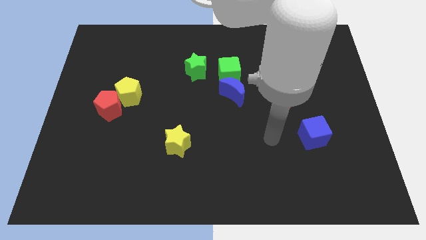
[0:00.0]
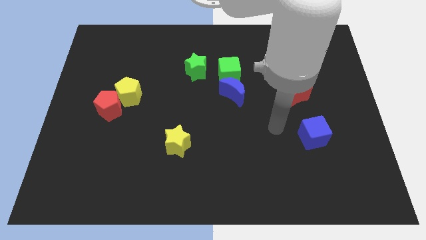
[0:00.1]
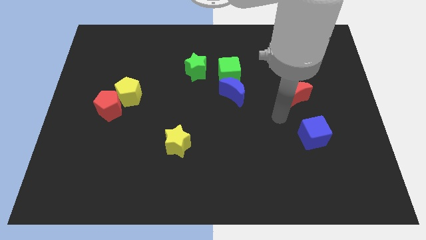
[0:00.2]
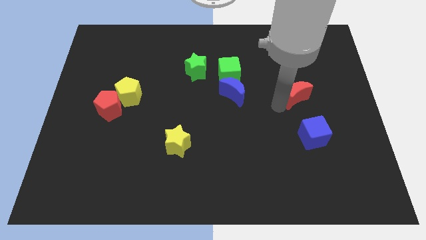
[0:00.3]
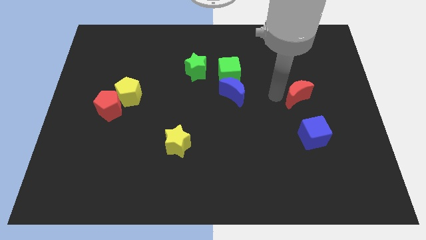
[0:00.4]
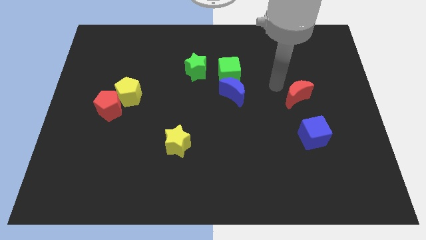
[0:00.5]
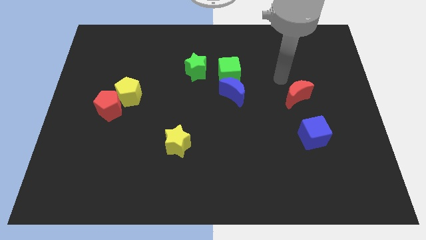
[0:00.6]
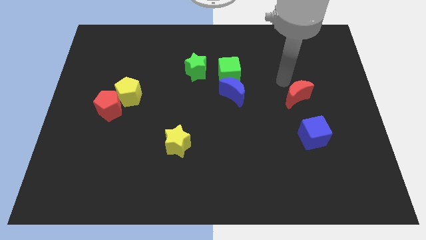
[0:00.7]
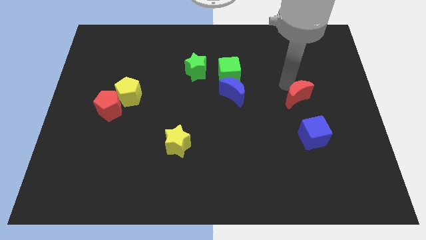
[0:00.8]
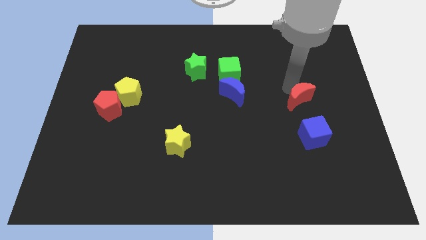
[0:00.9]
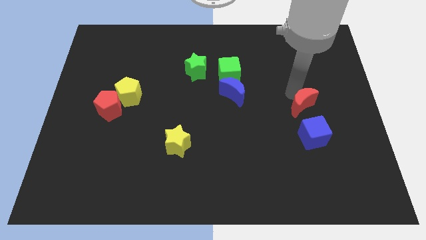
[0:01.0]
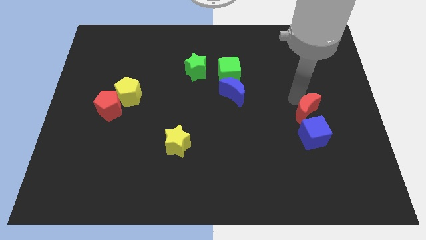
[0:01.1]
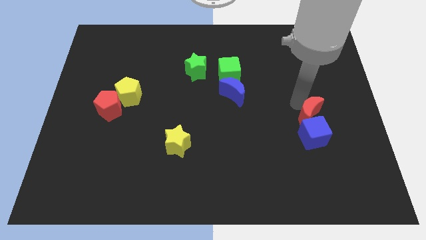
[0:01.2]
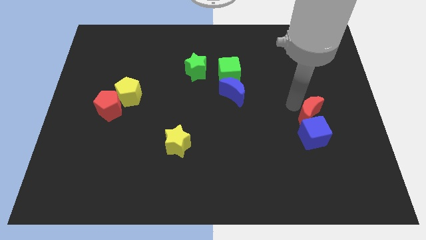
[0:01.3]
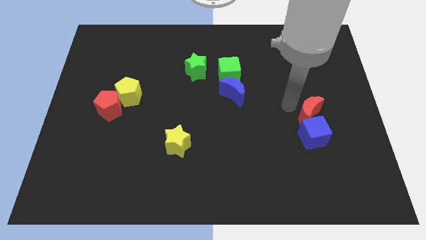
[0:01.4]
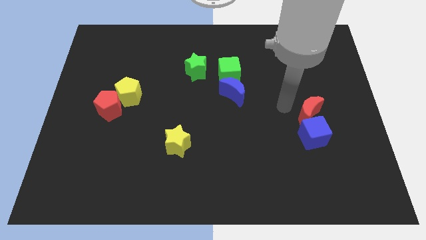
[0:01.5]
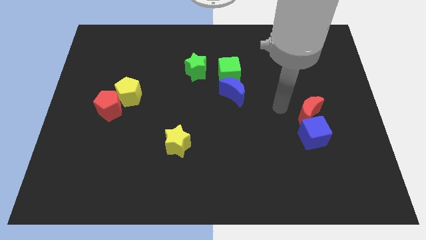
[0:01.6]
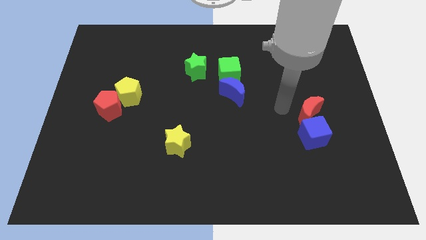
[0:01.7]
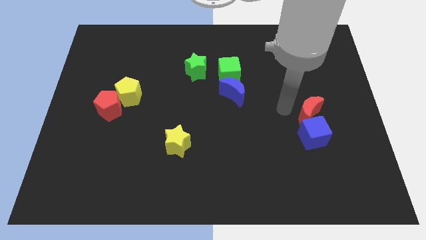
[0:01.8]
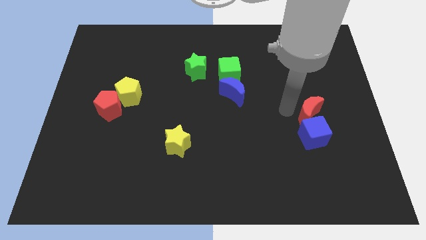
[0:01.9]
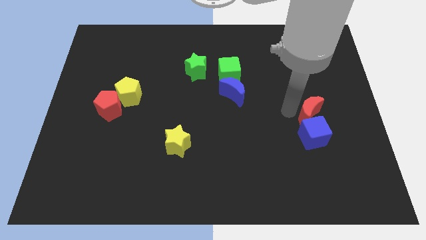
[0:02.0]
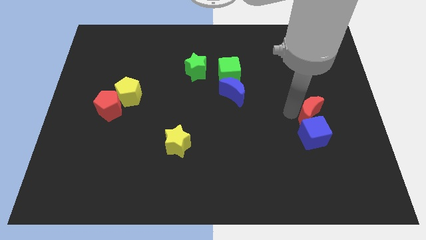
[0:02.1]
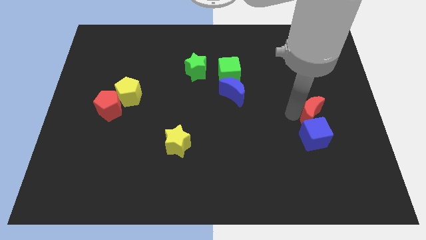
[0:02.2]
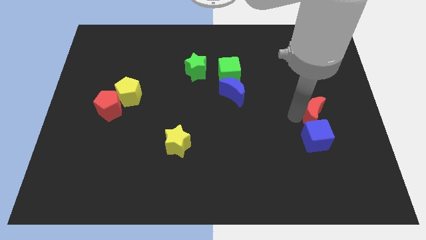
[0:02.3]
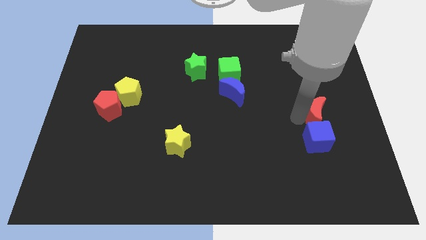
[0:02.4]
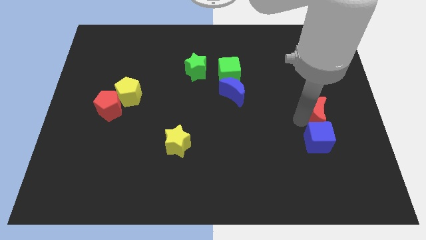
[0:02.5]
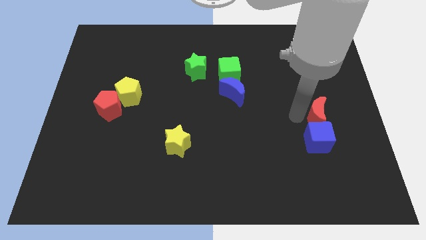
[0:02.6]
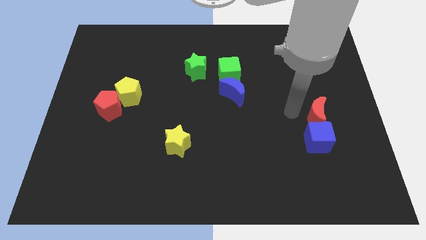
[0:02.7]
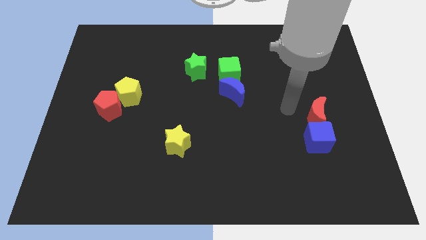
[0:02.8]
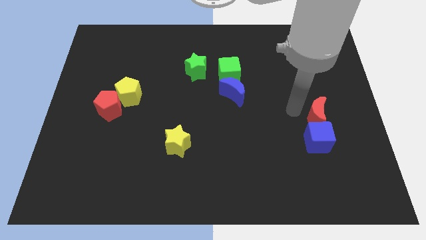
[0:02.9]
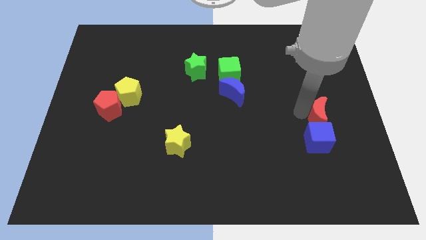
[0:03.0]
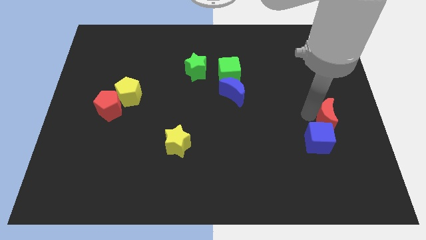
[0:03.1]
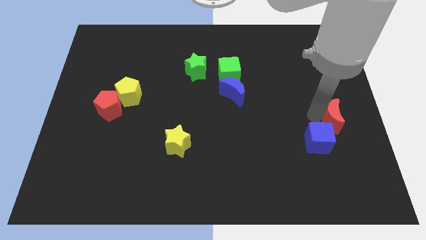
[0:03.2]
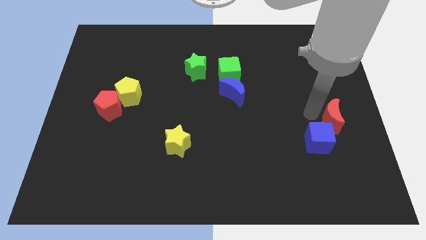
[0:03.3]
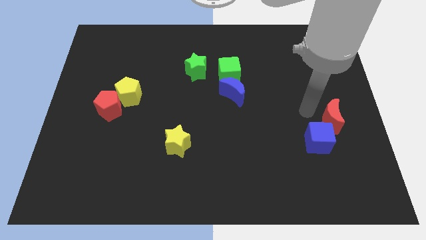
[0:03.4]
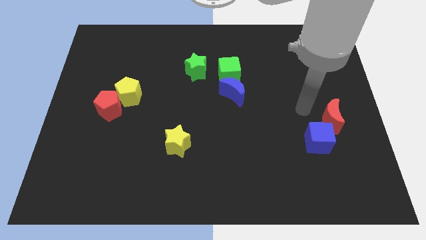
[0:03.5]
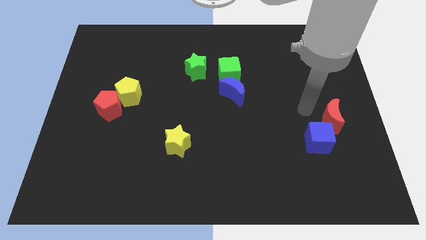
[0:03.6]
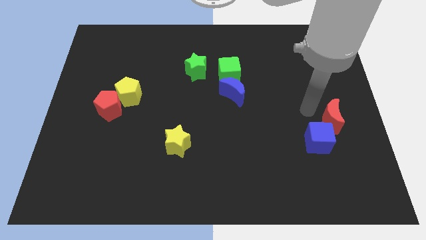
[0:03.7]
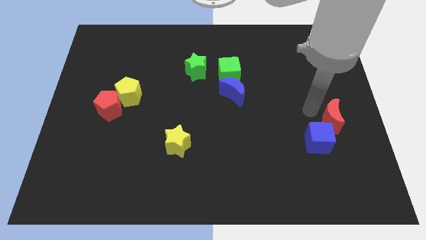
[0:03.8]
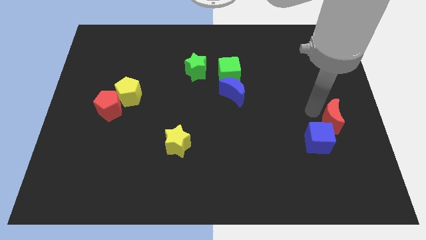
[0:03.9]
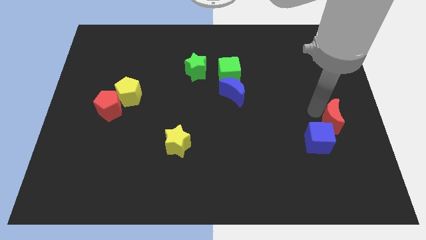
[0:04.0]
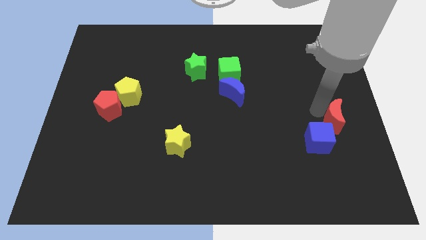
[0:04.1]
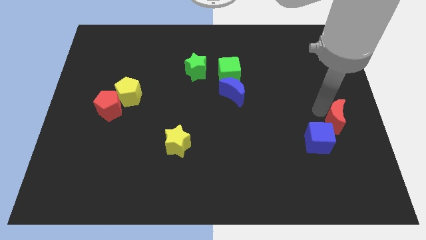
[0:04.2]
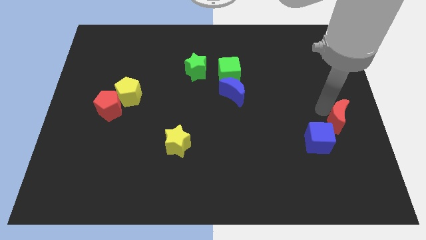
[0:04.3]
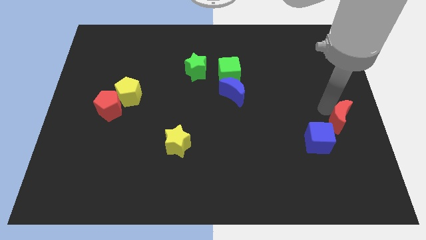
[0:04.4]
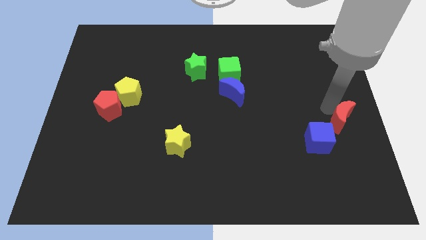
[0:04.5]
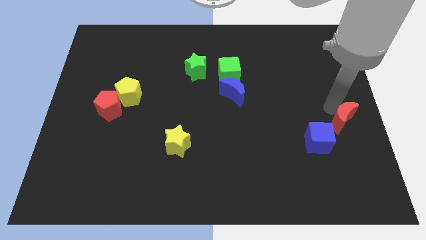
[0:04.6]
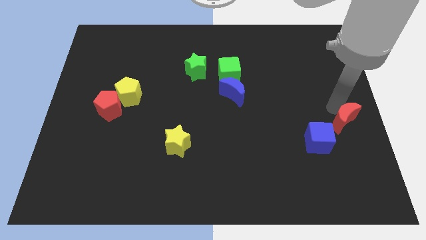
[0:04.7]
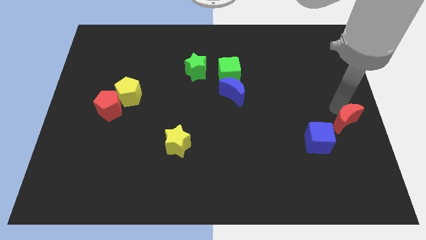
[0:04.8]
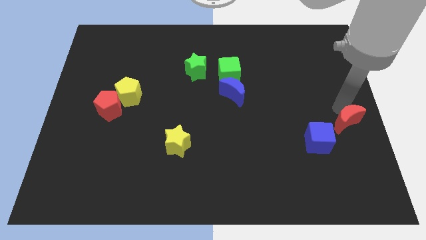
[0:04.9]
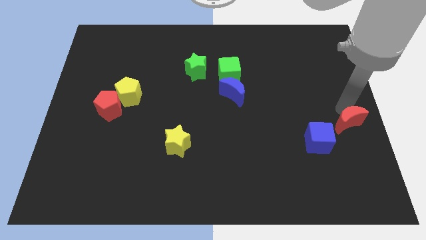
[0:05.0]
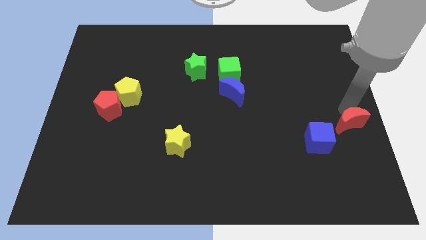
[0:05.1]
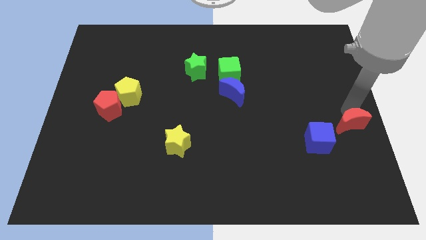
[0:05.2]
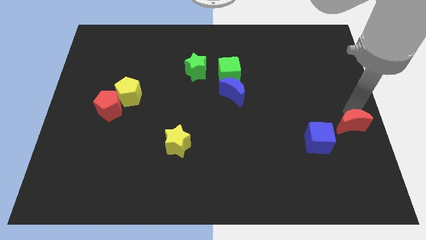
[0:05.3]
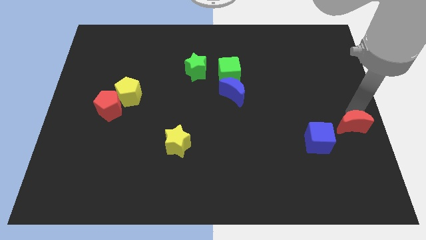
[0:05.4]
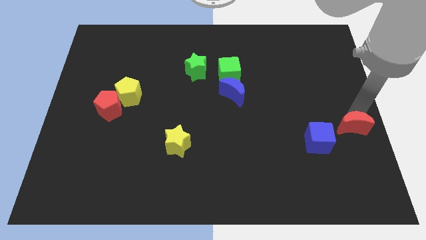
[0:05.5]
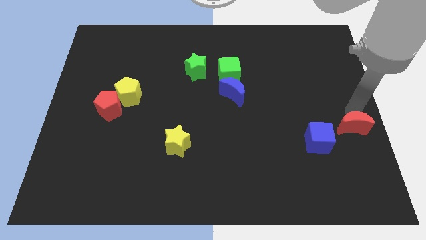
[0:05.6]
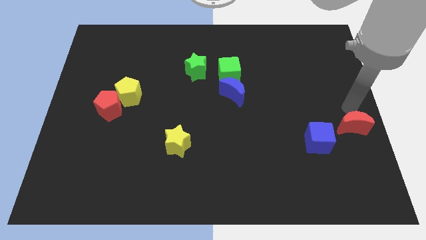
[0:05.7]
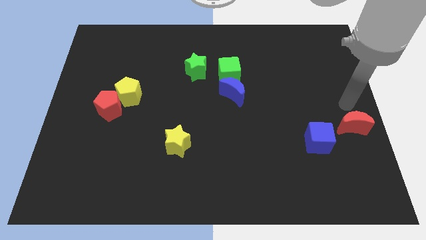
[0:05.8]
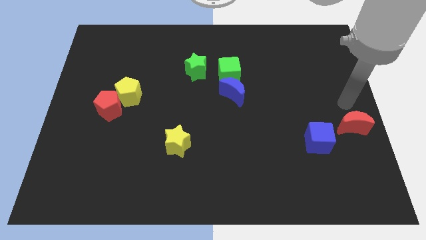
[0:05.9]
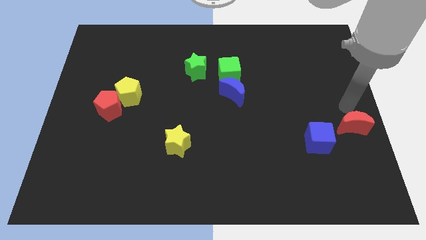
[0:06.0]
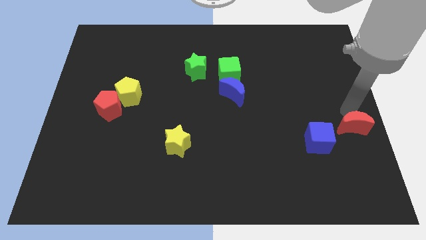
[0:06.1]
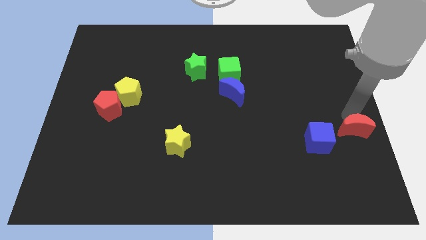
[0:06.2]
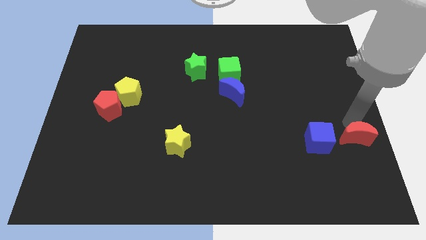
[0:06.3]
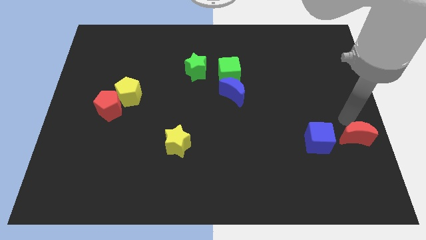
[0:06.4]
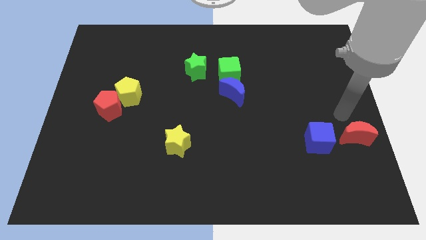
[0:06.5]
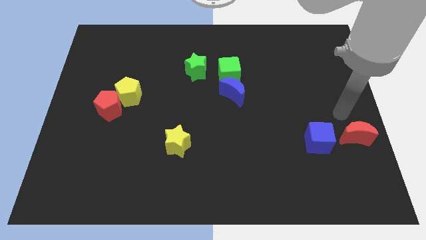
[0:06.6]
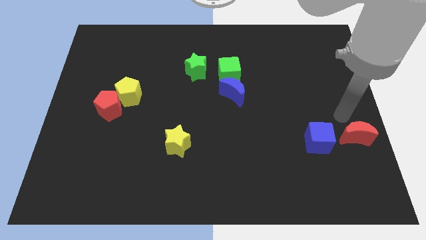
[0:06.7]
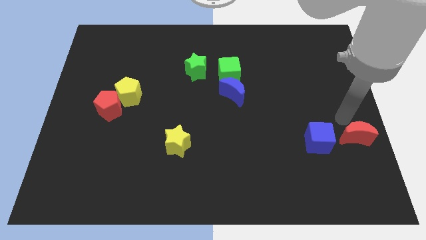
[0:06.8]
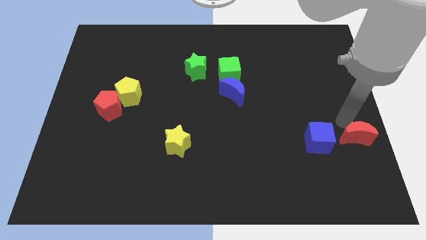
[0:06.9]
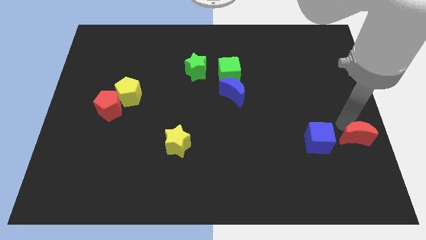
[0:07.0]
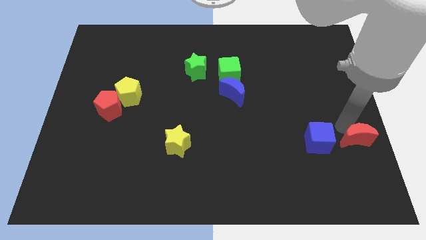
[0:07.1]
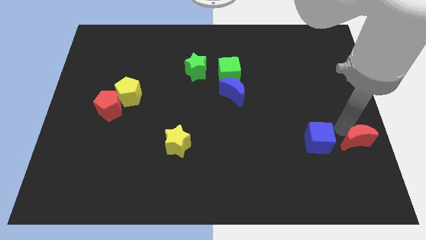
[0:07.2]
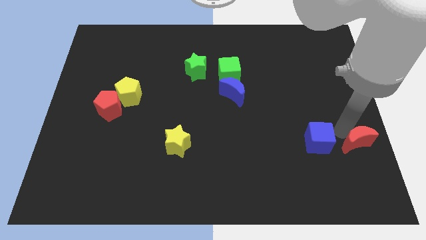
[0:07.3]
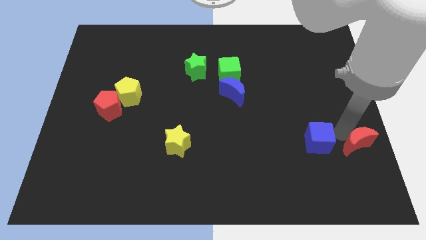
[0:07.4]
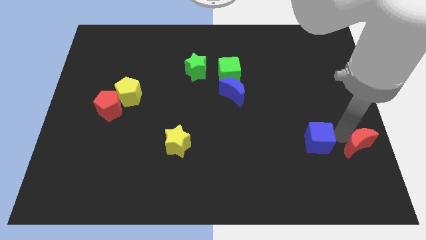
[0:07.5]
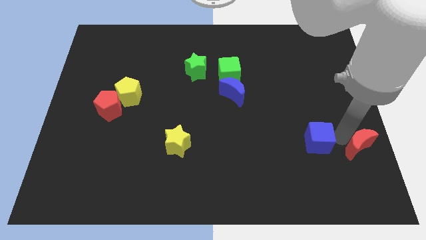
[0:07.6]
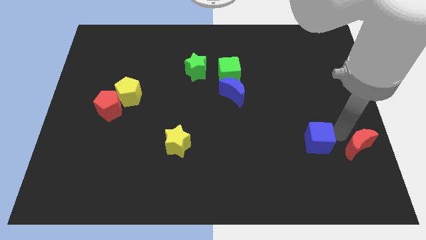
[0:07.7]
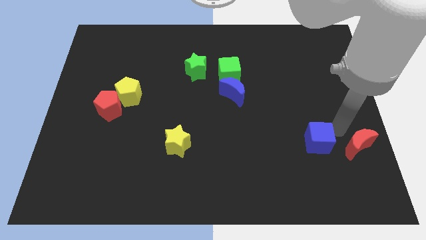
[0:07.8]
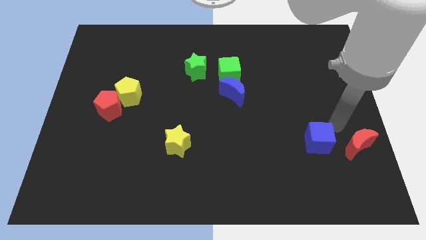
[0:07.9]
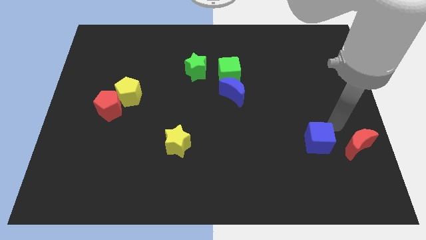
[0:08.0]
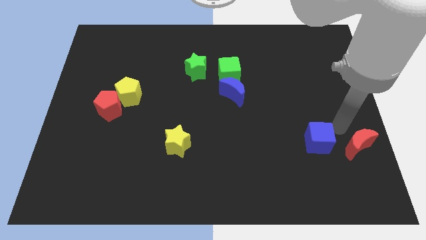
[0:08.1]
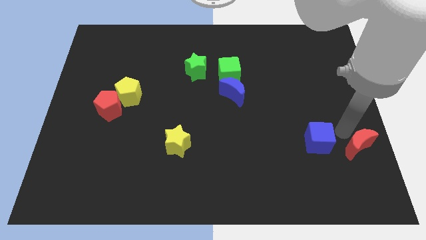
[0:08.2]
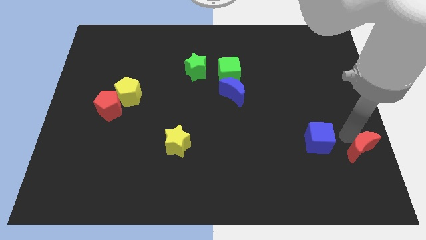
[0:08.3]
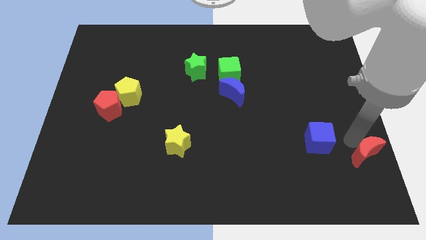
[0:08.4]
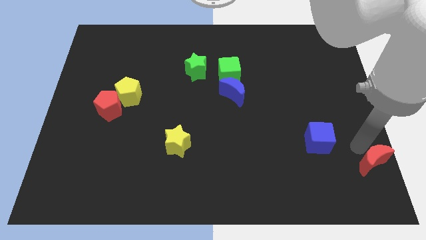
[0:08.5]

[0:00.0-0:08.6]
put the red moon to the bottom right
